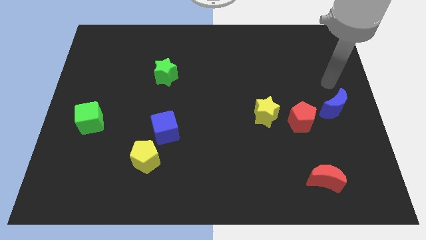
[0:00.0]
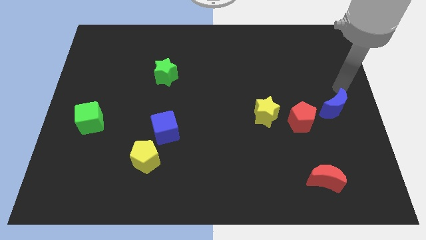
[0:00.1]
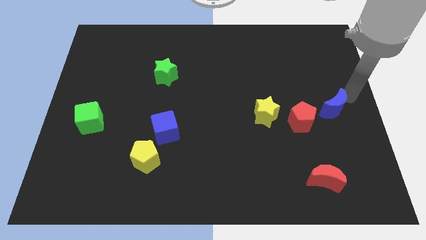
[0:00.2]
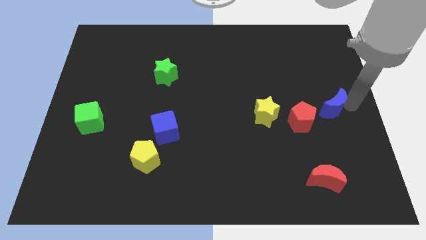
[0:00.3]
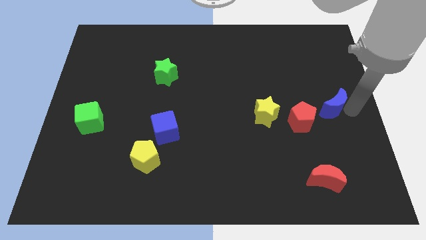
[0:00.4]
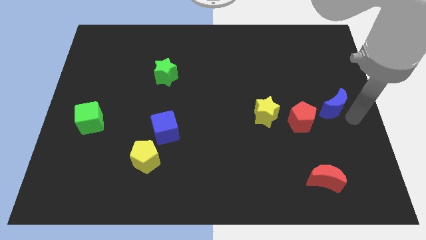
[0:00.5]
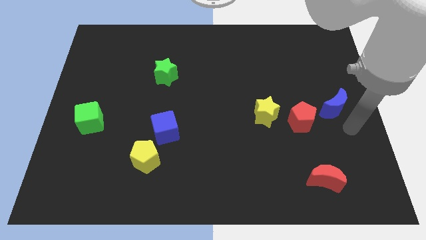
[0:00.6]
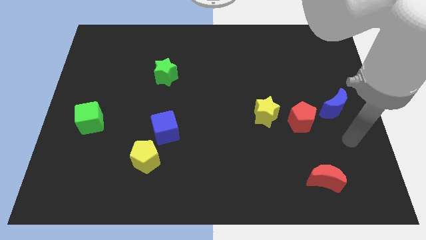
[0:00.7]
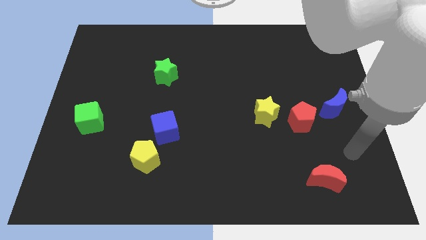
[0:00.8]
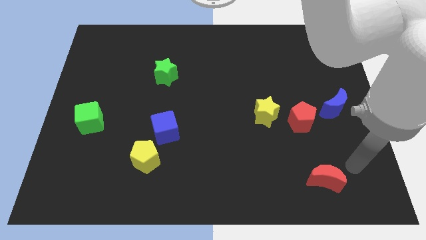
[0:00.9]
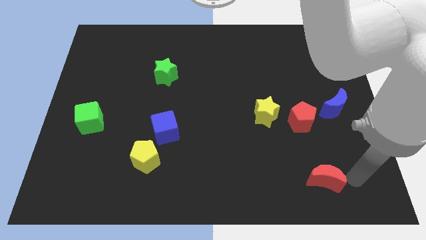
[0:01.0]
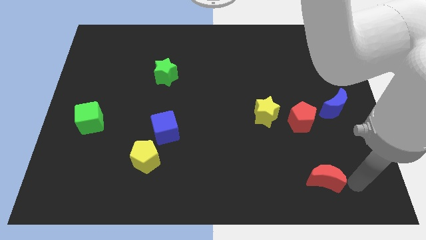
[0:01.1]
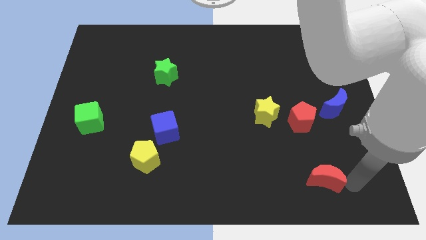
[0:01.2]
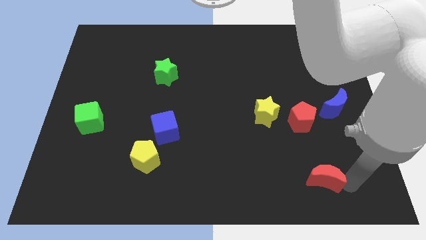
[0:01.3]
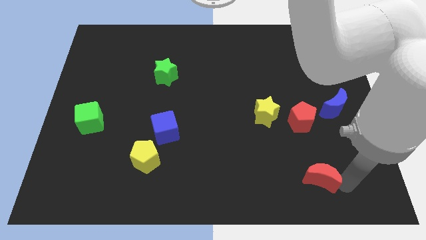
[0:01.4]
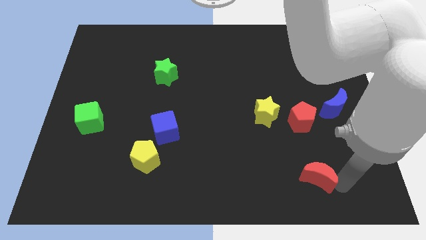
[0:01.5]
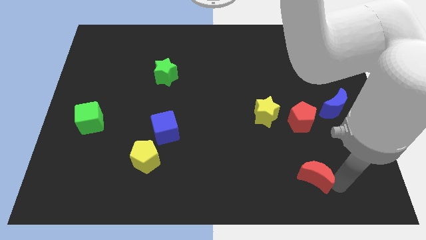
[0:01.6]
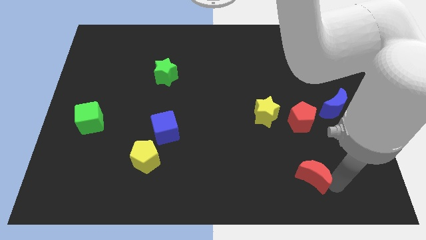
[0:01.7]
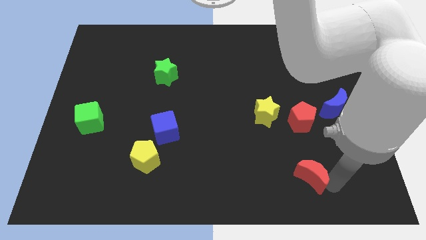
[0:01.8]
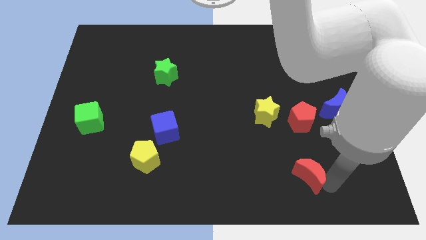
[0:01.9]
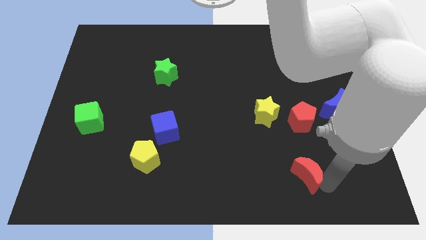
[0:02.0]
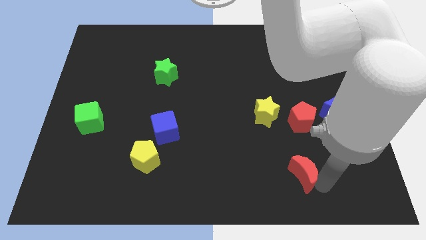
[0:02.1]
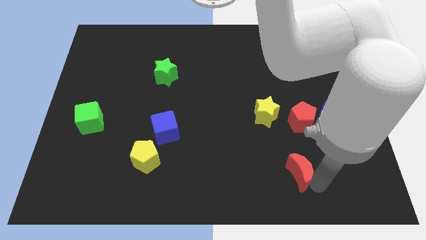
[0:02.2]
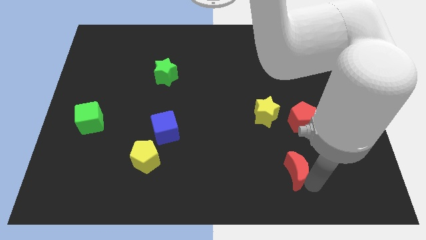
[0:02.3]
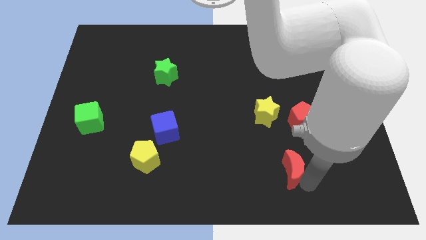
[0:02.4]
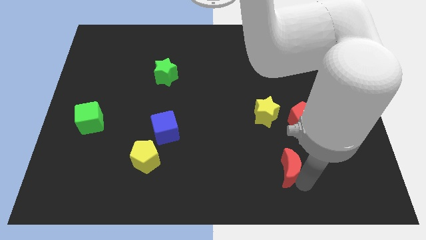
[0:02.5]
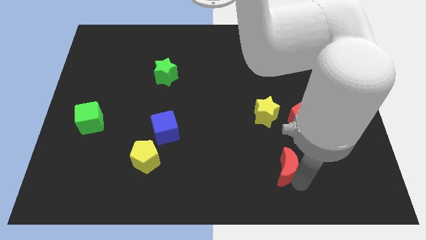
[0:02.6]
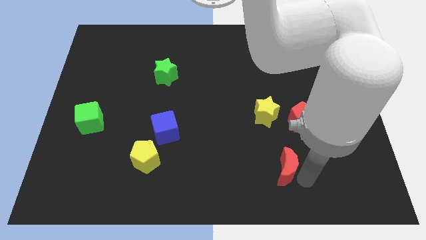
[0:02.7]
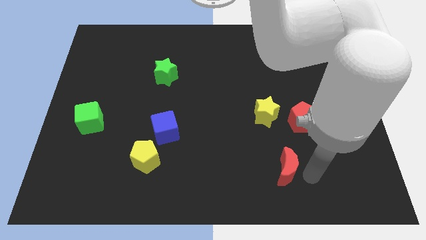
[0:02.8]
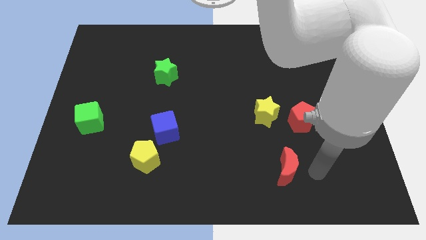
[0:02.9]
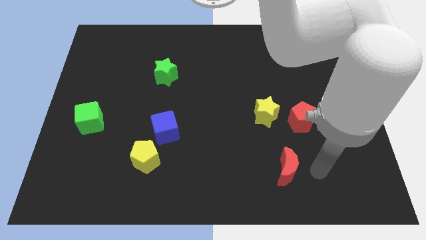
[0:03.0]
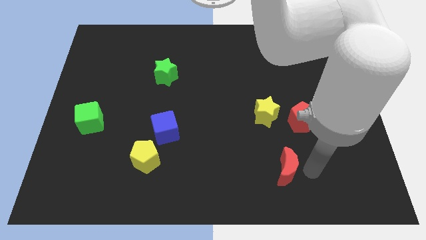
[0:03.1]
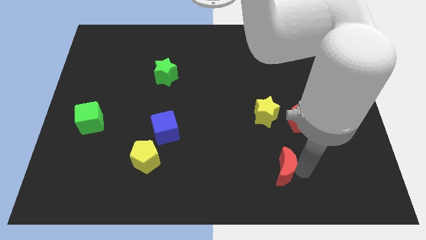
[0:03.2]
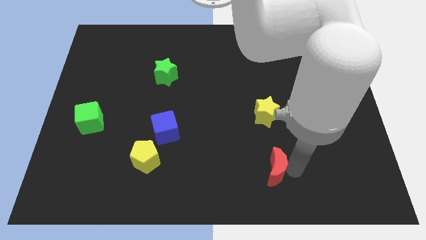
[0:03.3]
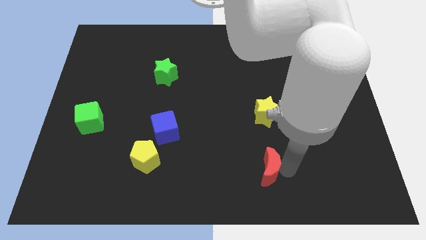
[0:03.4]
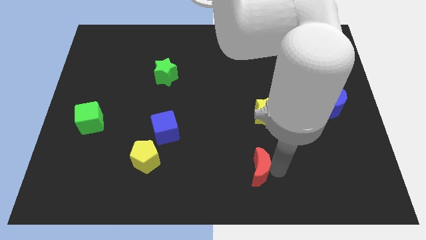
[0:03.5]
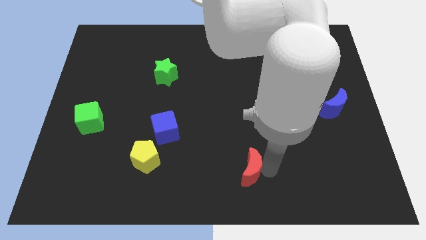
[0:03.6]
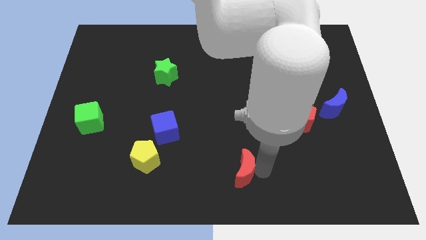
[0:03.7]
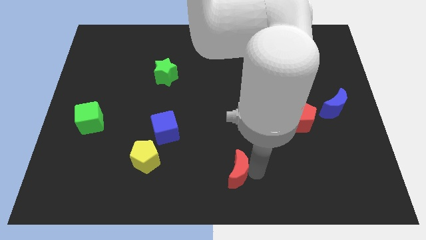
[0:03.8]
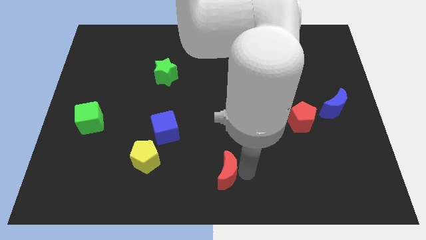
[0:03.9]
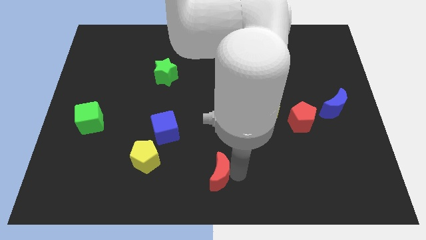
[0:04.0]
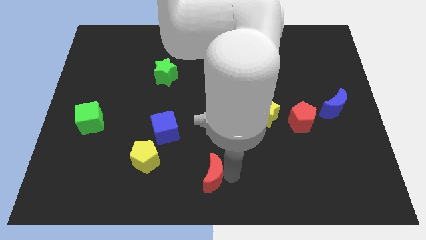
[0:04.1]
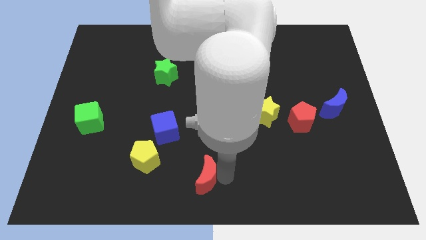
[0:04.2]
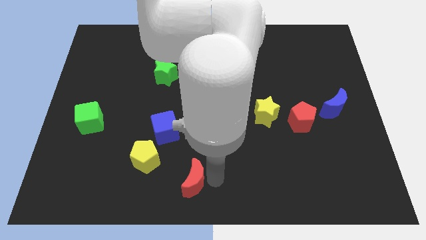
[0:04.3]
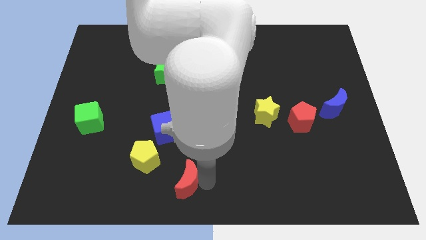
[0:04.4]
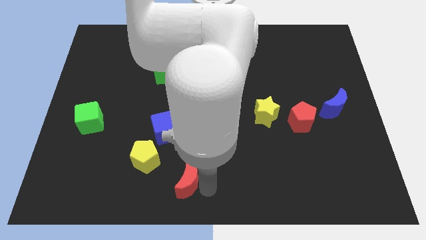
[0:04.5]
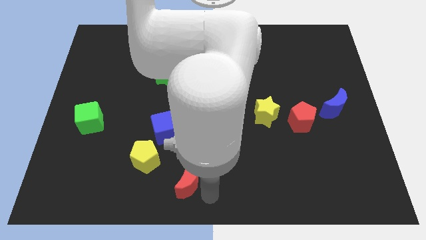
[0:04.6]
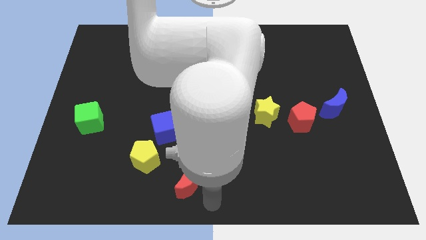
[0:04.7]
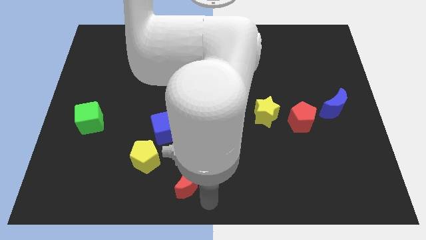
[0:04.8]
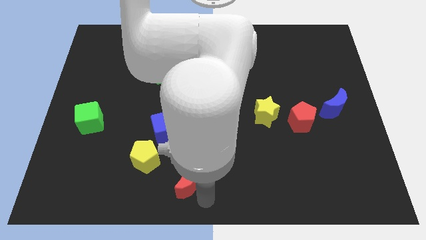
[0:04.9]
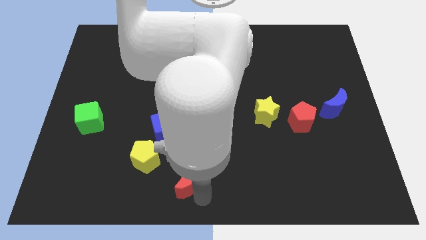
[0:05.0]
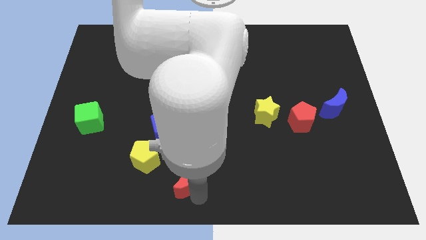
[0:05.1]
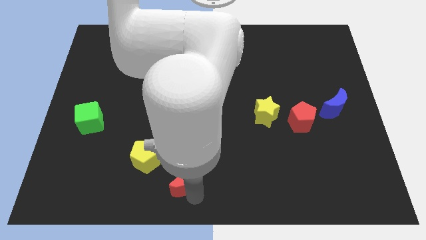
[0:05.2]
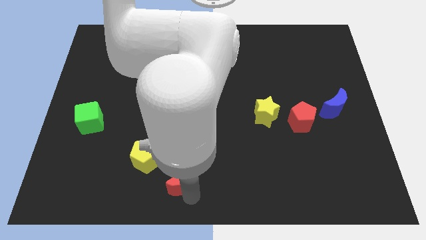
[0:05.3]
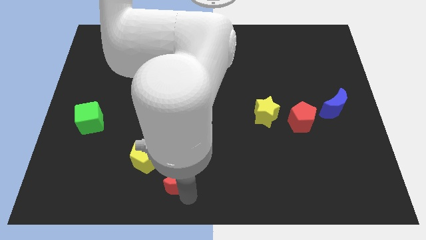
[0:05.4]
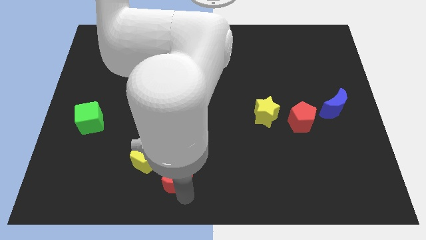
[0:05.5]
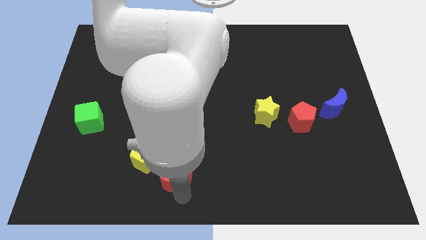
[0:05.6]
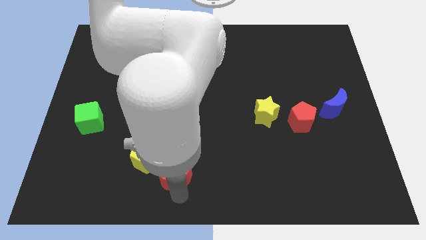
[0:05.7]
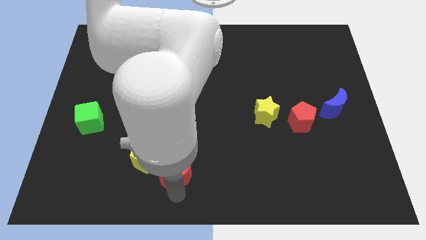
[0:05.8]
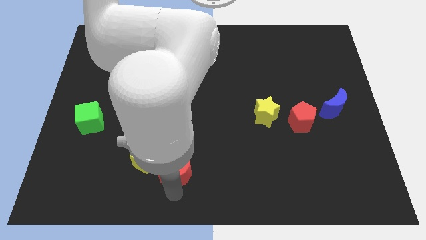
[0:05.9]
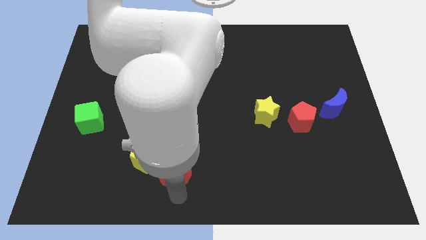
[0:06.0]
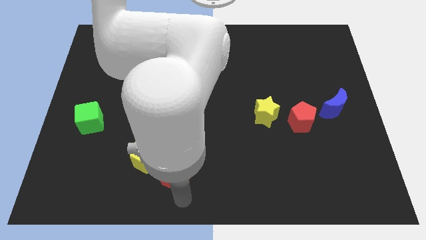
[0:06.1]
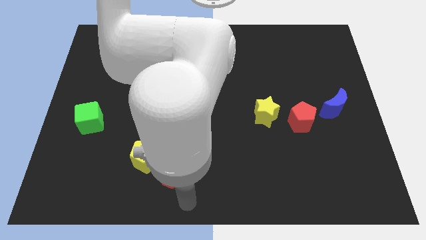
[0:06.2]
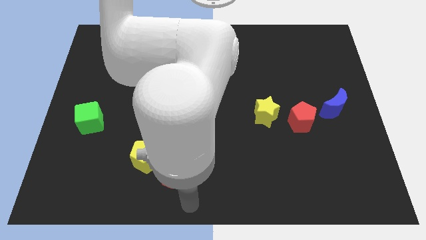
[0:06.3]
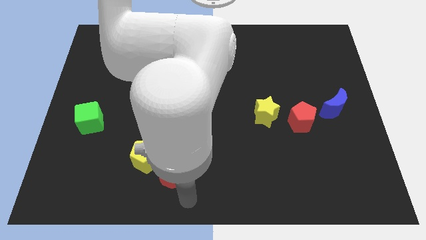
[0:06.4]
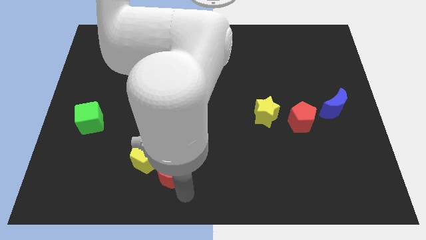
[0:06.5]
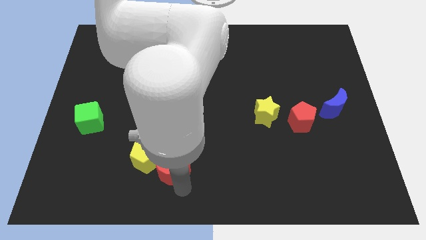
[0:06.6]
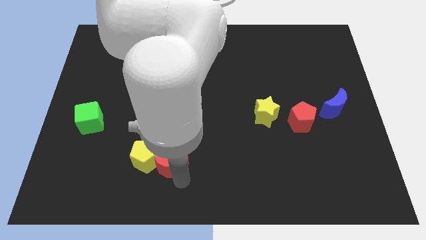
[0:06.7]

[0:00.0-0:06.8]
put the red moon towards the yellow pentagon
